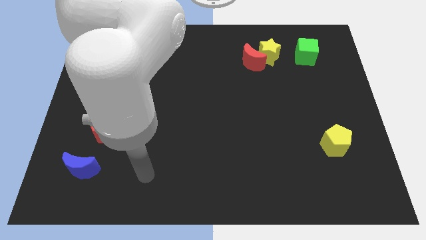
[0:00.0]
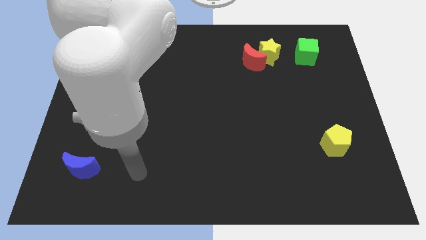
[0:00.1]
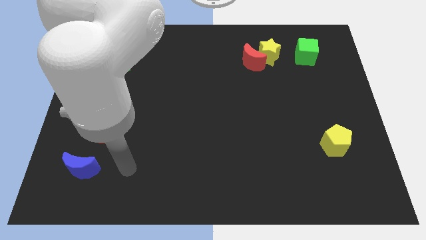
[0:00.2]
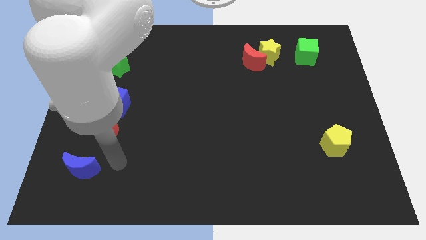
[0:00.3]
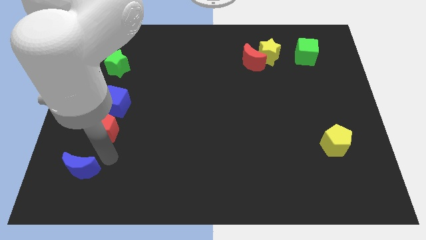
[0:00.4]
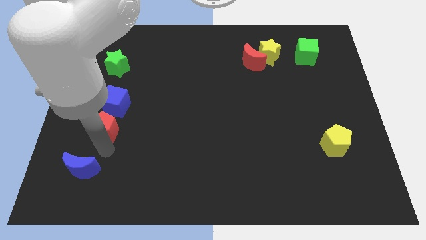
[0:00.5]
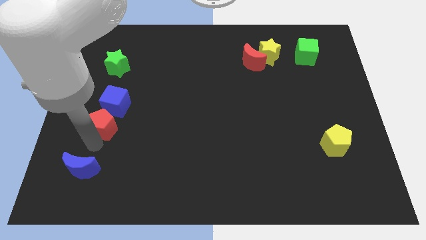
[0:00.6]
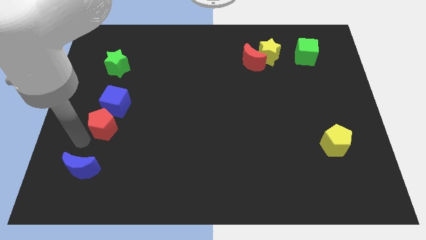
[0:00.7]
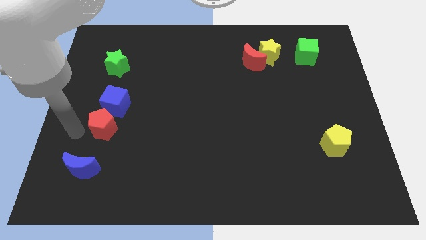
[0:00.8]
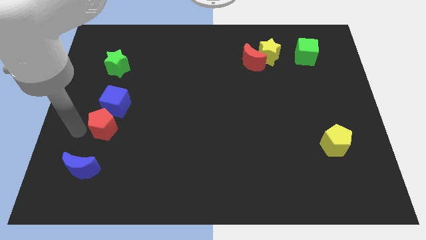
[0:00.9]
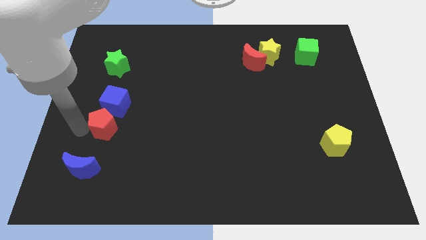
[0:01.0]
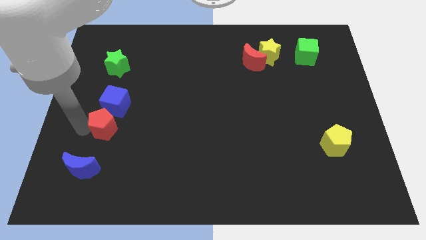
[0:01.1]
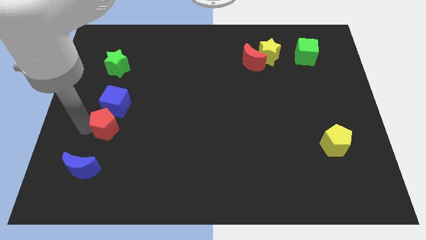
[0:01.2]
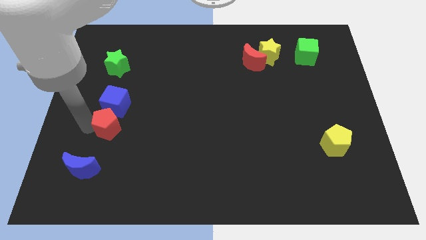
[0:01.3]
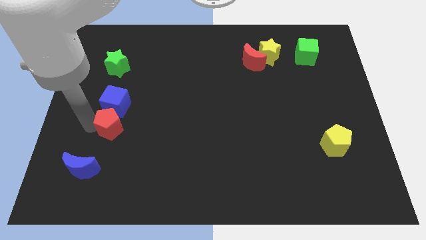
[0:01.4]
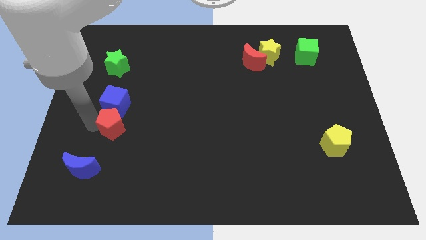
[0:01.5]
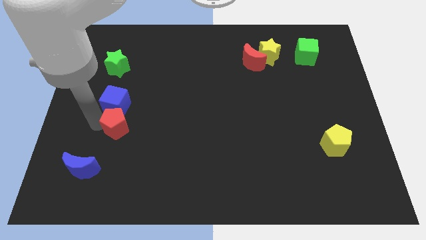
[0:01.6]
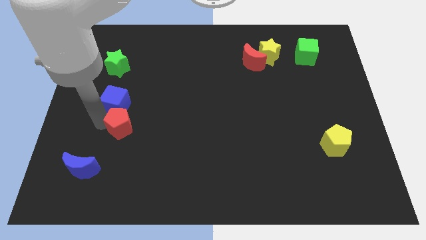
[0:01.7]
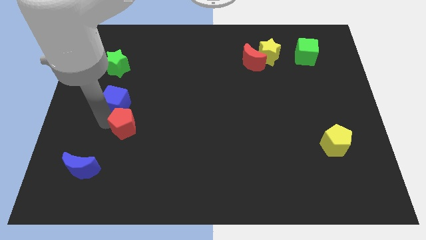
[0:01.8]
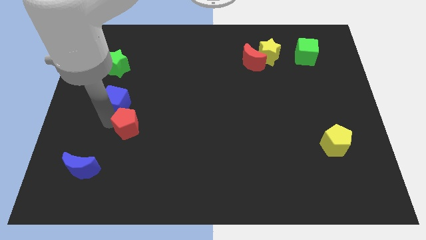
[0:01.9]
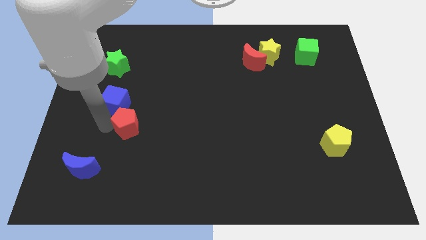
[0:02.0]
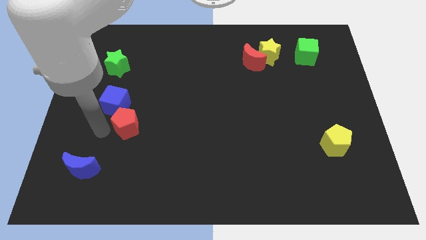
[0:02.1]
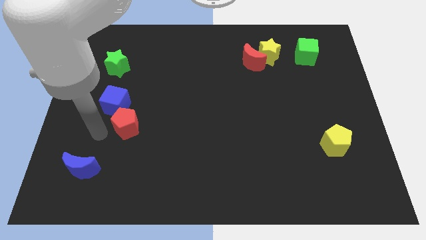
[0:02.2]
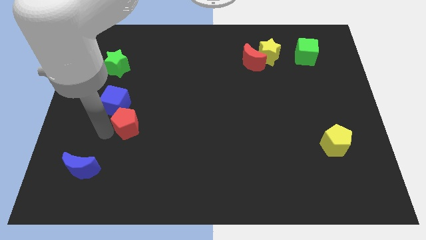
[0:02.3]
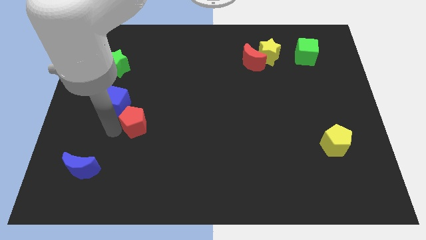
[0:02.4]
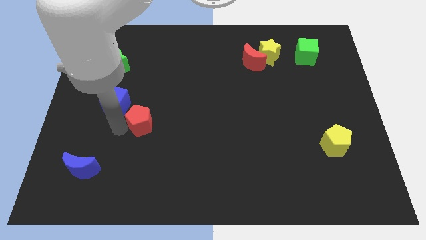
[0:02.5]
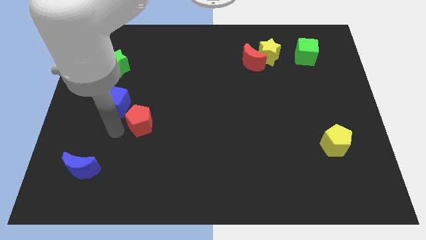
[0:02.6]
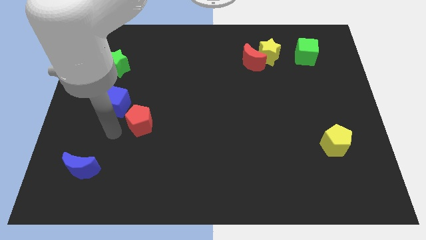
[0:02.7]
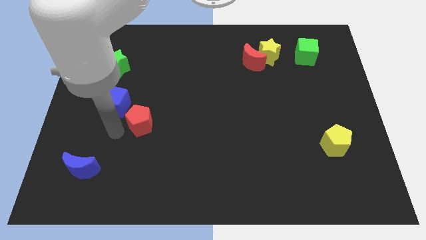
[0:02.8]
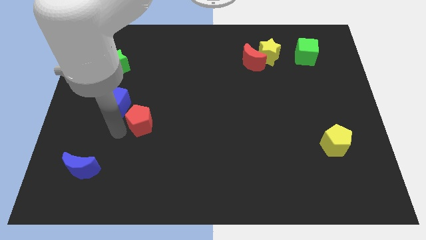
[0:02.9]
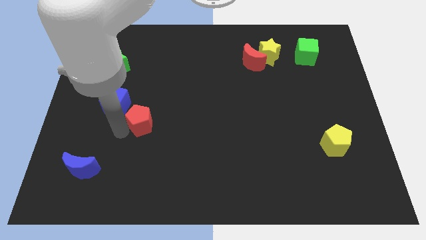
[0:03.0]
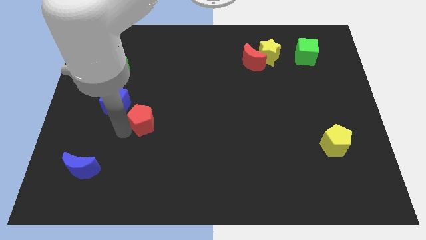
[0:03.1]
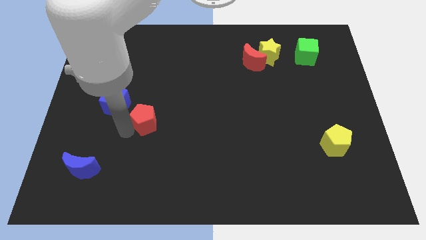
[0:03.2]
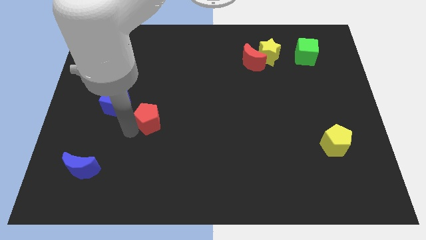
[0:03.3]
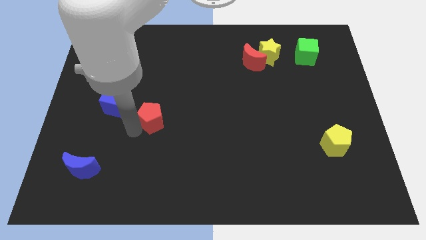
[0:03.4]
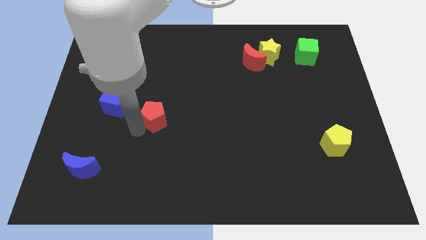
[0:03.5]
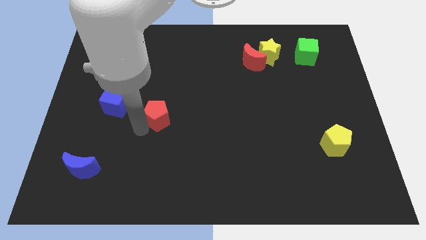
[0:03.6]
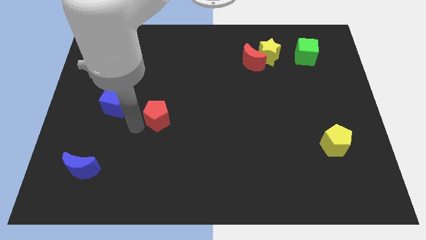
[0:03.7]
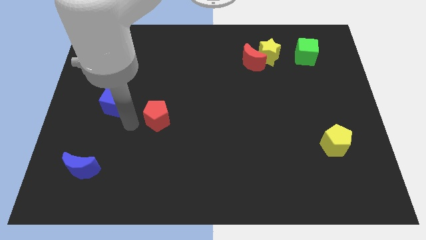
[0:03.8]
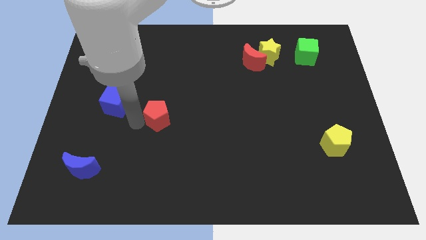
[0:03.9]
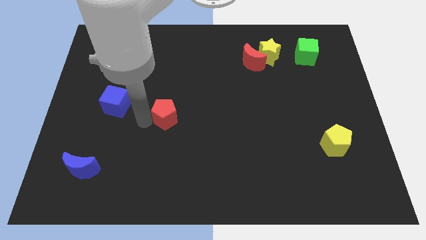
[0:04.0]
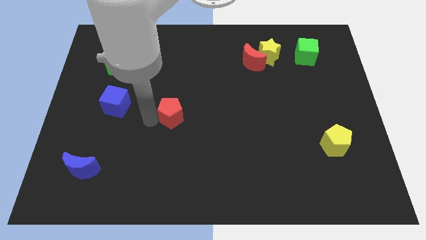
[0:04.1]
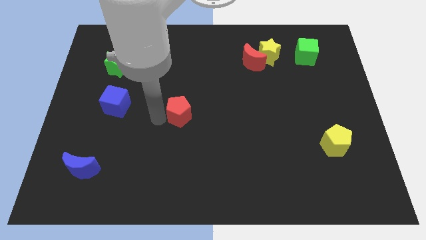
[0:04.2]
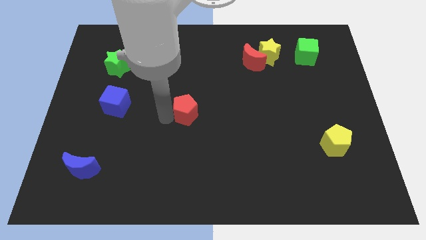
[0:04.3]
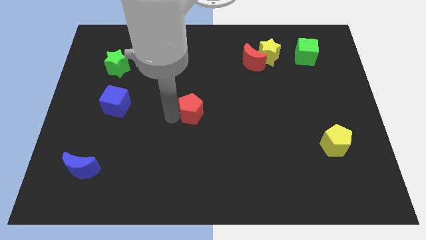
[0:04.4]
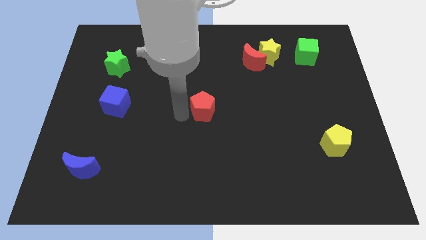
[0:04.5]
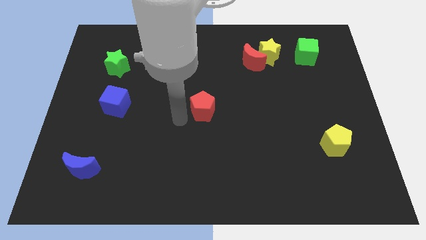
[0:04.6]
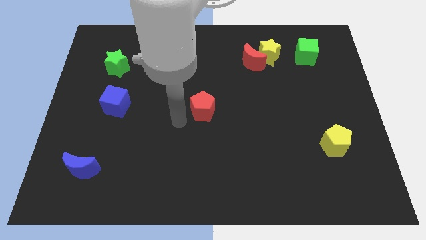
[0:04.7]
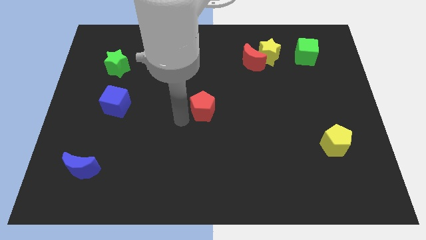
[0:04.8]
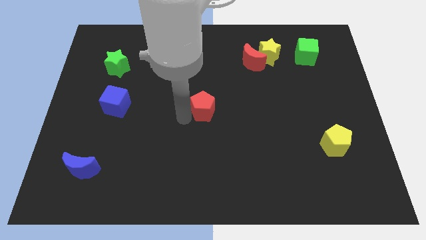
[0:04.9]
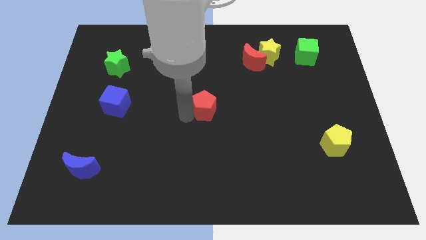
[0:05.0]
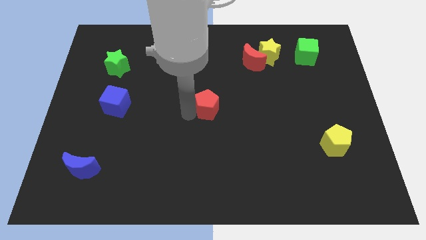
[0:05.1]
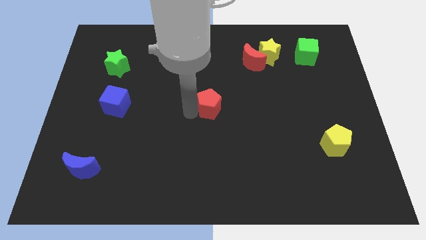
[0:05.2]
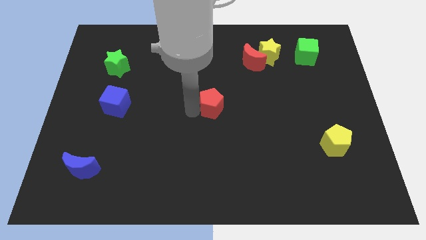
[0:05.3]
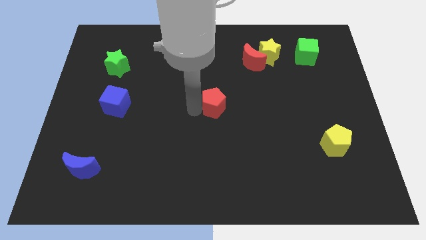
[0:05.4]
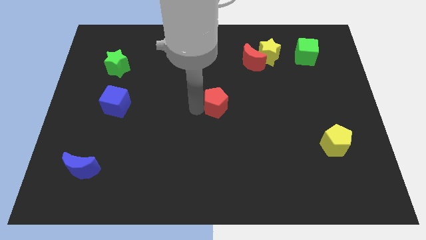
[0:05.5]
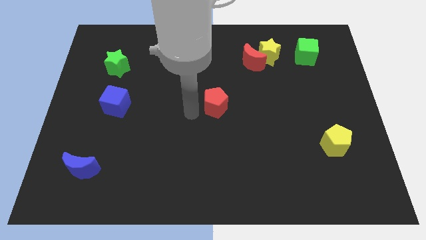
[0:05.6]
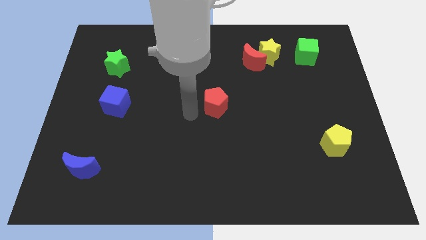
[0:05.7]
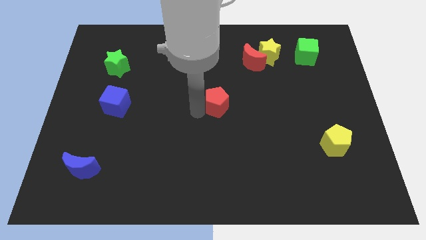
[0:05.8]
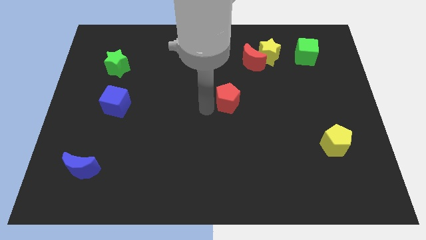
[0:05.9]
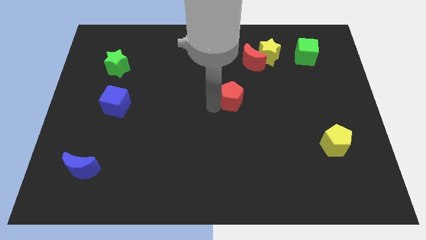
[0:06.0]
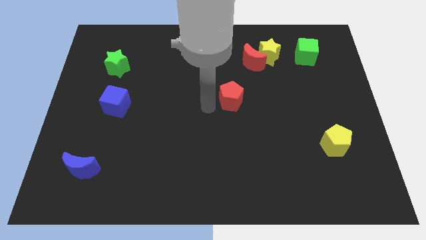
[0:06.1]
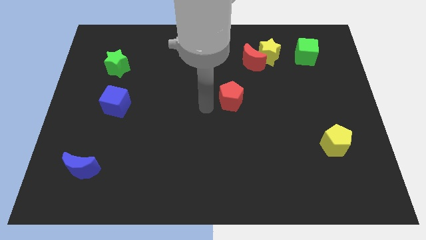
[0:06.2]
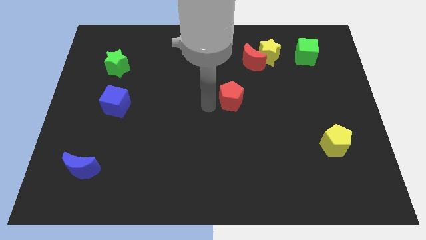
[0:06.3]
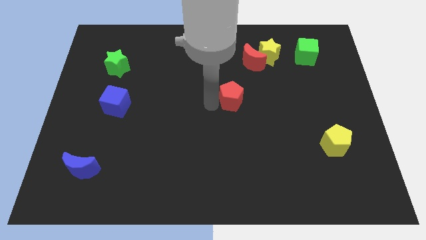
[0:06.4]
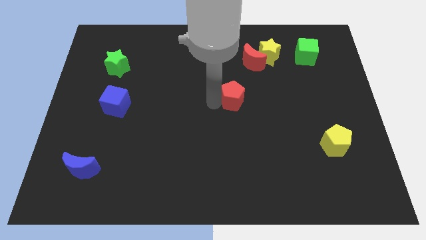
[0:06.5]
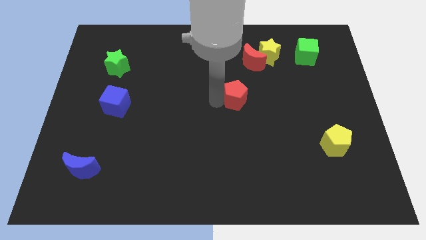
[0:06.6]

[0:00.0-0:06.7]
slide the red pentagon below the red moon

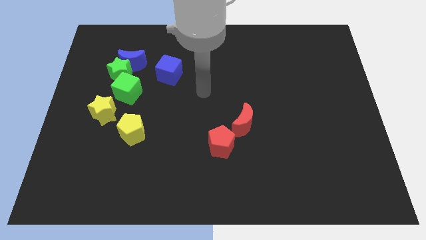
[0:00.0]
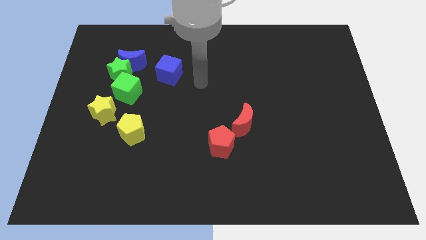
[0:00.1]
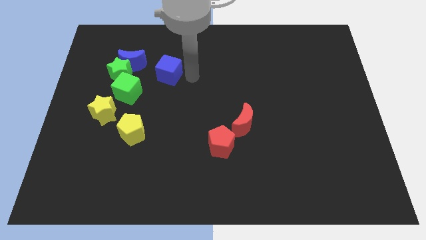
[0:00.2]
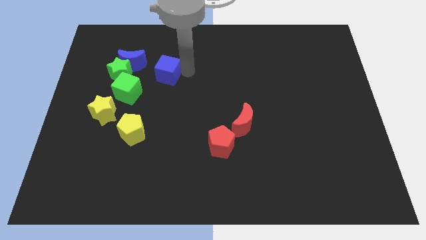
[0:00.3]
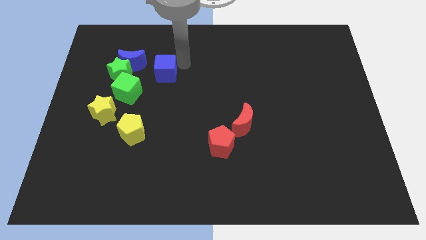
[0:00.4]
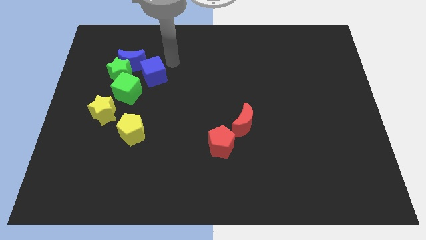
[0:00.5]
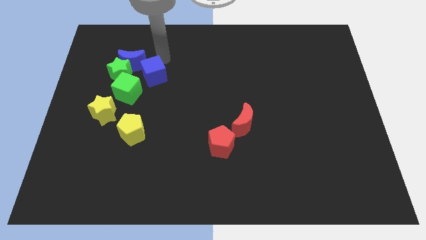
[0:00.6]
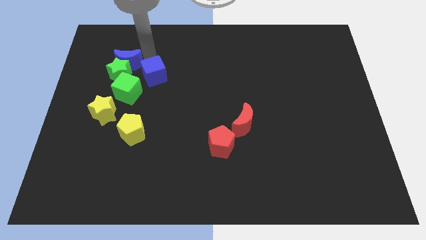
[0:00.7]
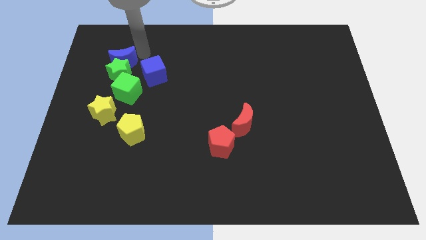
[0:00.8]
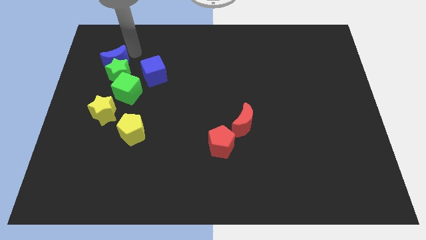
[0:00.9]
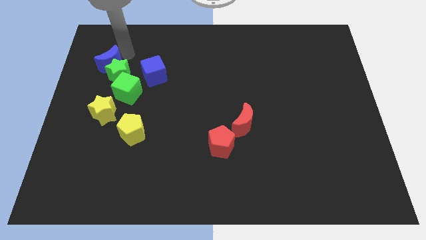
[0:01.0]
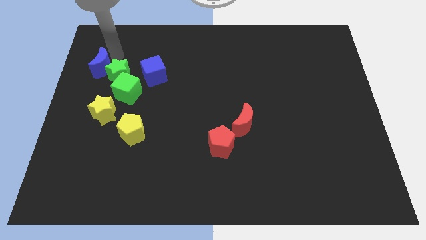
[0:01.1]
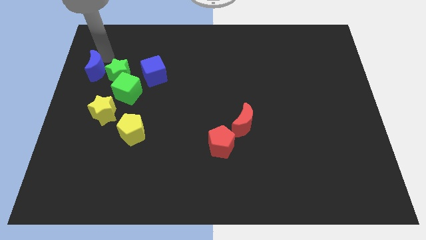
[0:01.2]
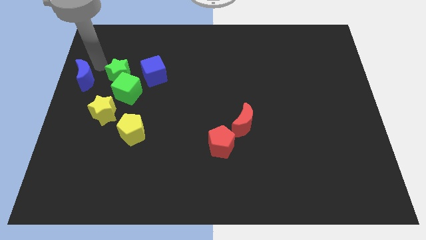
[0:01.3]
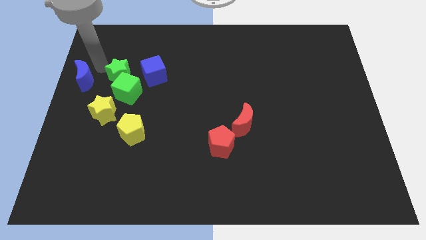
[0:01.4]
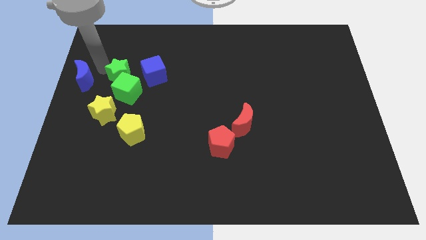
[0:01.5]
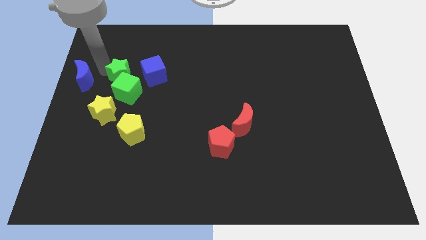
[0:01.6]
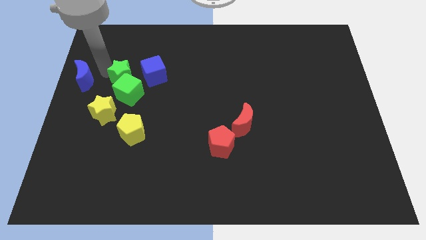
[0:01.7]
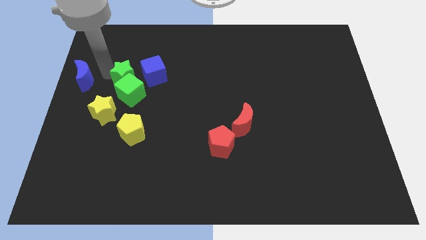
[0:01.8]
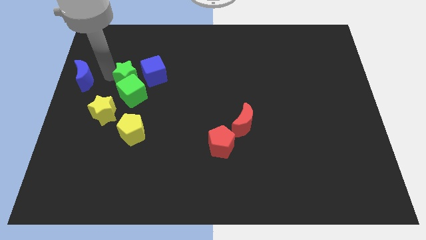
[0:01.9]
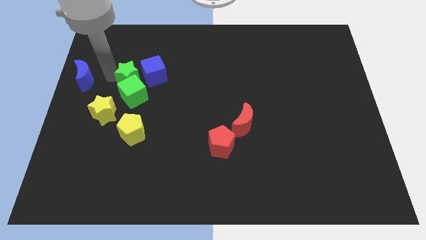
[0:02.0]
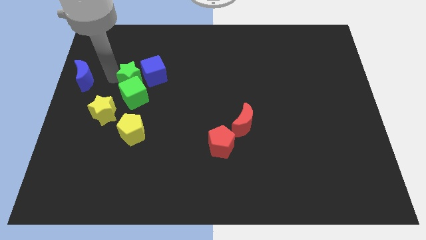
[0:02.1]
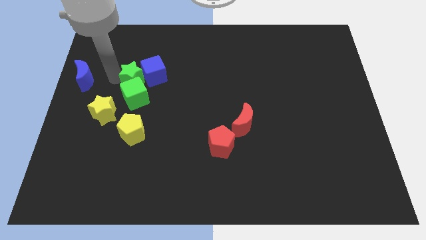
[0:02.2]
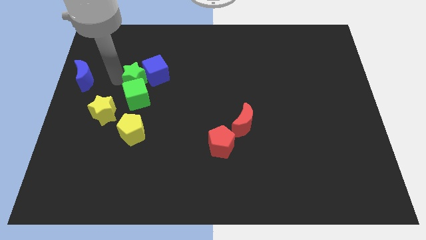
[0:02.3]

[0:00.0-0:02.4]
put the green star to the top of the yellow pentagon
